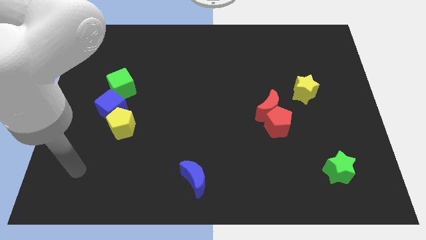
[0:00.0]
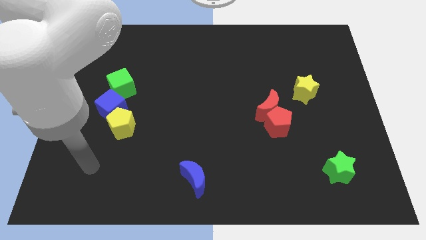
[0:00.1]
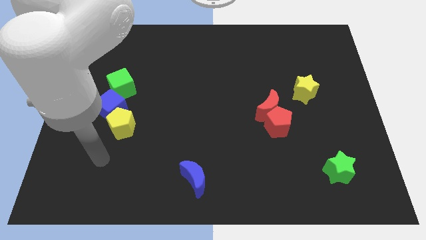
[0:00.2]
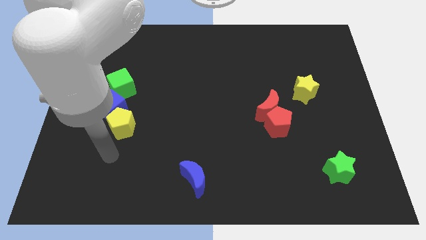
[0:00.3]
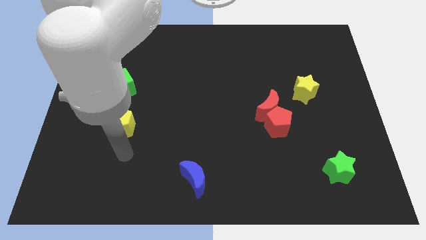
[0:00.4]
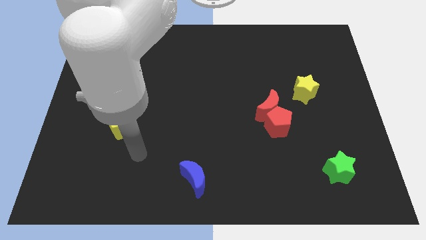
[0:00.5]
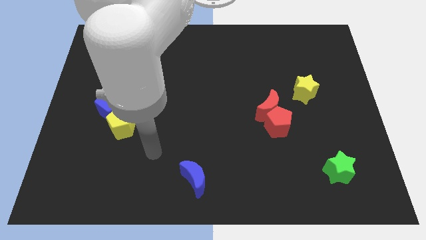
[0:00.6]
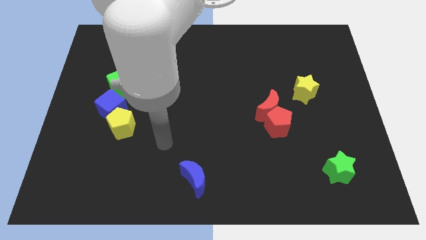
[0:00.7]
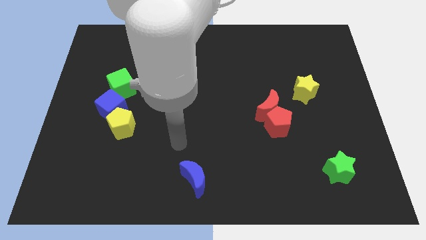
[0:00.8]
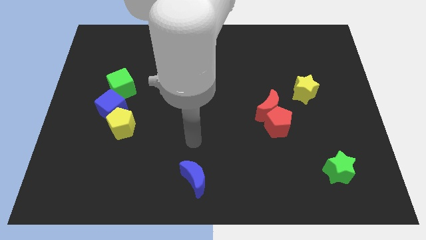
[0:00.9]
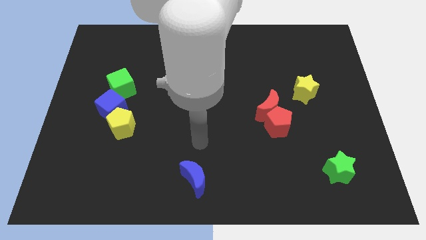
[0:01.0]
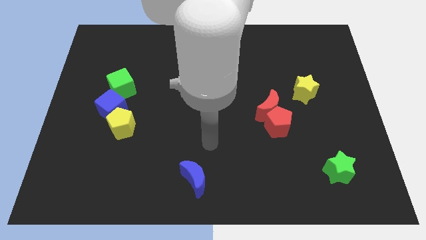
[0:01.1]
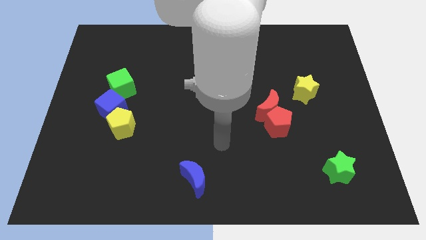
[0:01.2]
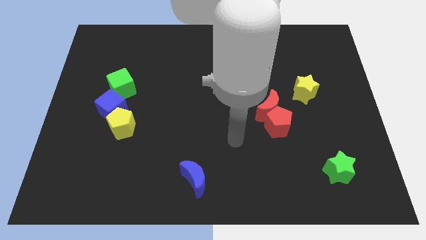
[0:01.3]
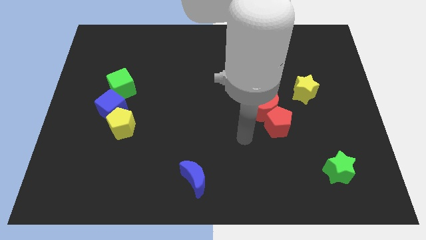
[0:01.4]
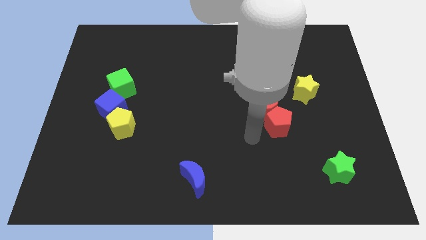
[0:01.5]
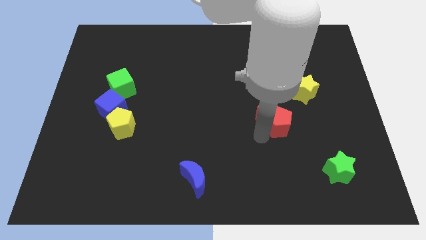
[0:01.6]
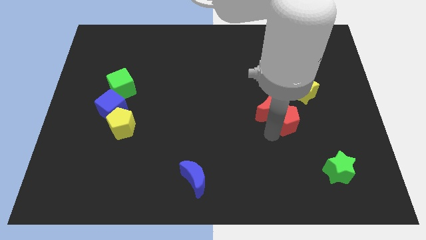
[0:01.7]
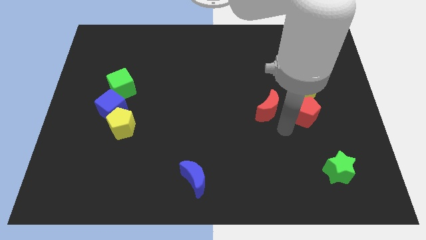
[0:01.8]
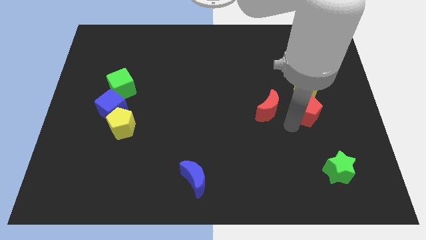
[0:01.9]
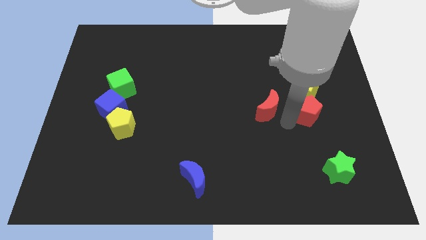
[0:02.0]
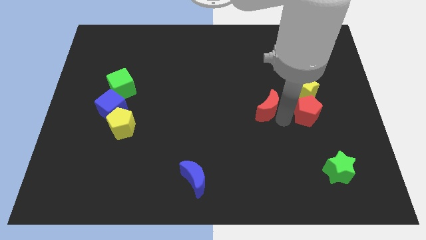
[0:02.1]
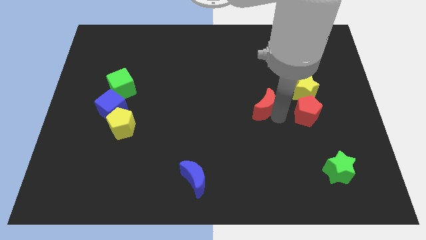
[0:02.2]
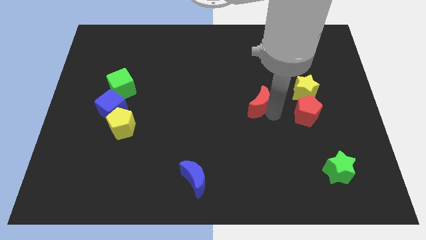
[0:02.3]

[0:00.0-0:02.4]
move the red moon away from the red pentagon

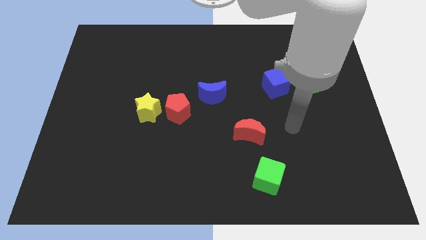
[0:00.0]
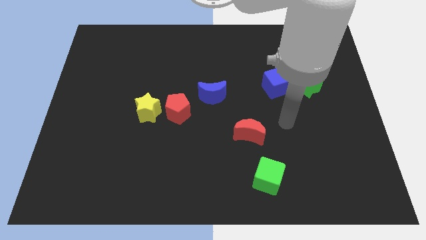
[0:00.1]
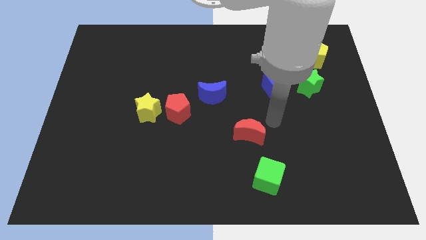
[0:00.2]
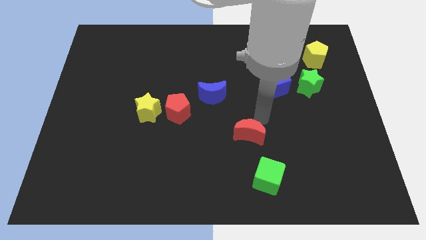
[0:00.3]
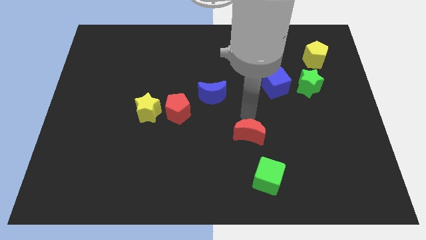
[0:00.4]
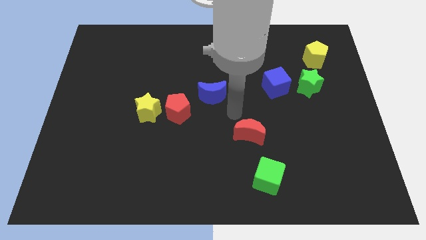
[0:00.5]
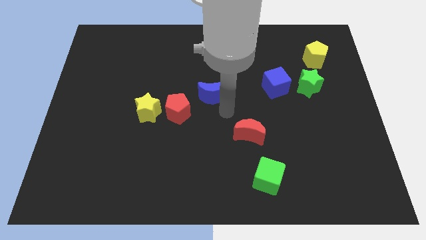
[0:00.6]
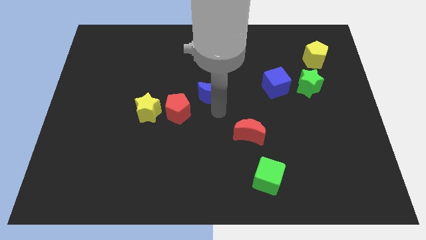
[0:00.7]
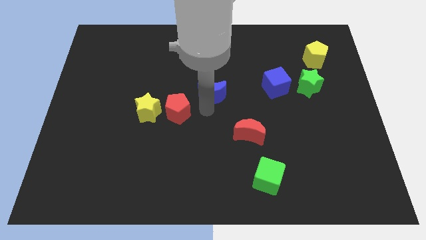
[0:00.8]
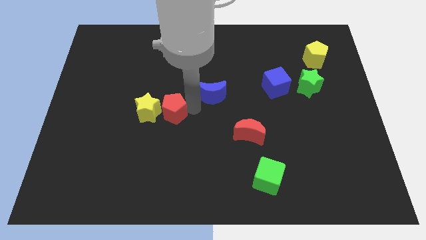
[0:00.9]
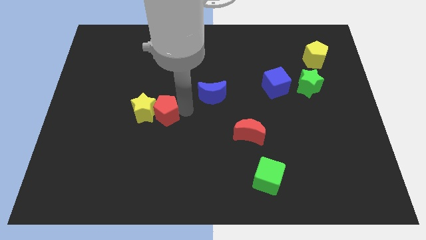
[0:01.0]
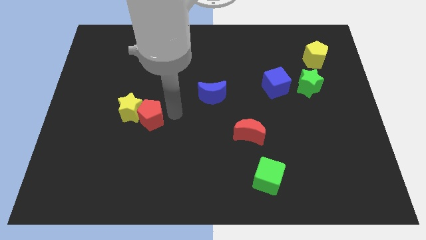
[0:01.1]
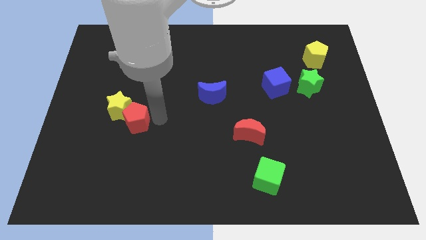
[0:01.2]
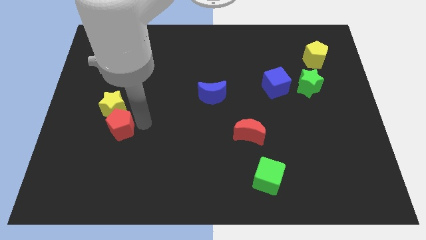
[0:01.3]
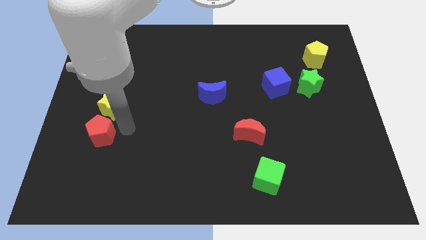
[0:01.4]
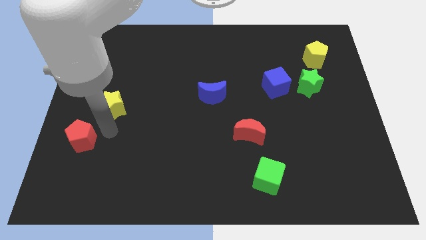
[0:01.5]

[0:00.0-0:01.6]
pull the yellow star apart from the red pentagon

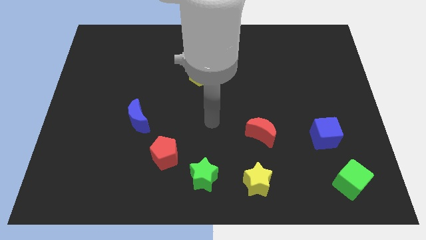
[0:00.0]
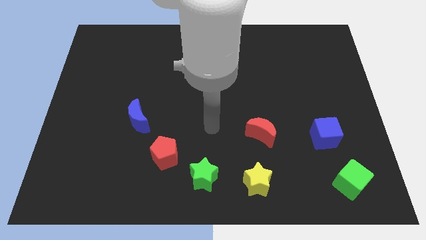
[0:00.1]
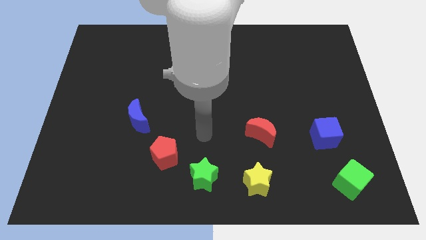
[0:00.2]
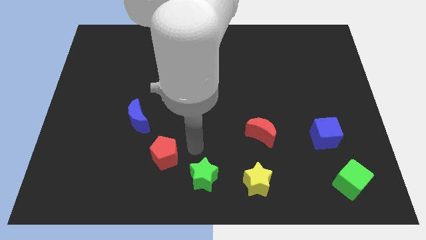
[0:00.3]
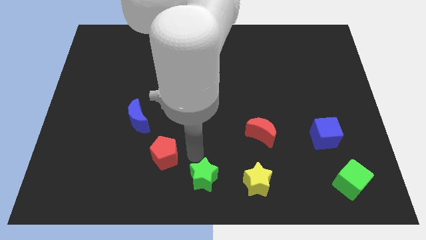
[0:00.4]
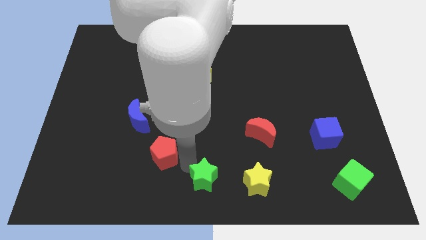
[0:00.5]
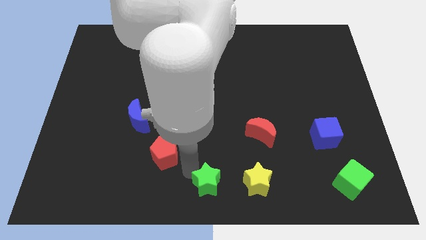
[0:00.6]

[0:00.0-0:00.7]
separate the red pentagon from the green star

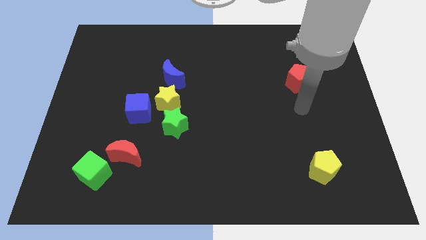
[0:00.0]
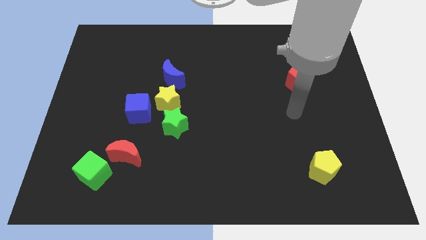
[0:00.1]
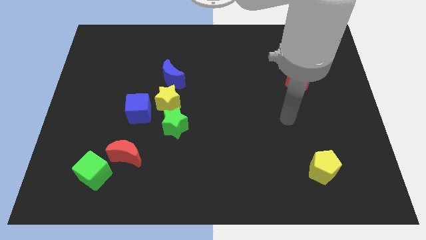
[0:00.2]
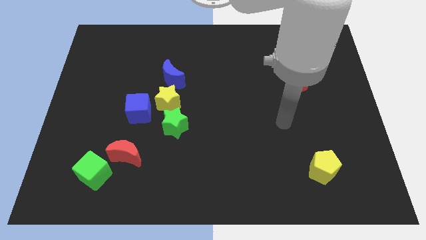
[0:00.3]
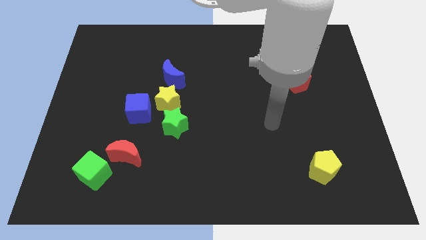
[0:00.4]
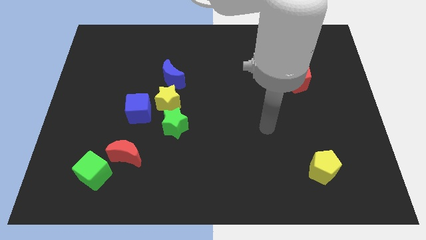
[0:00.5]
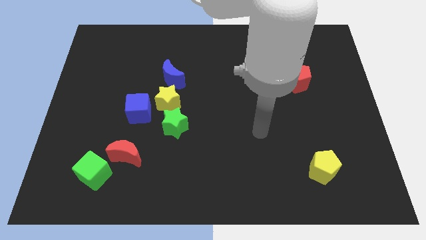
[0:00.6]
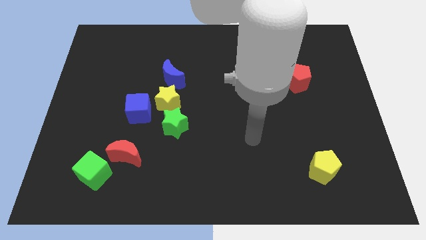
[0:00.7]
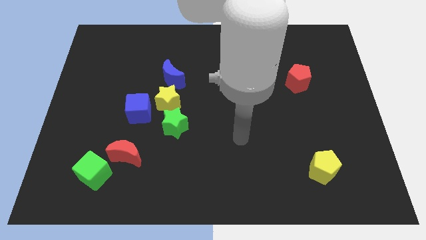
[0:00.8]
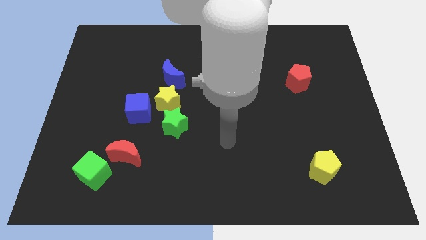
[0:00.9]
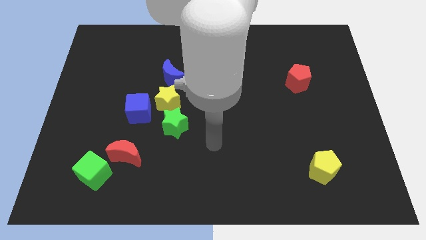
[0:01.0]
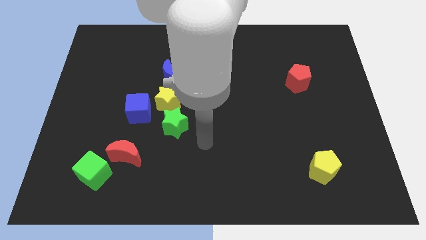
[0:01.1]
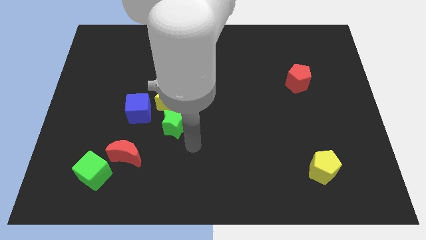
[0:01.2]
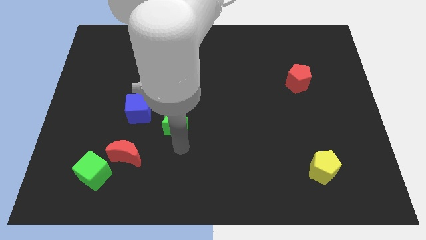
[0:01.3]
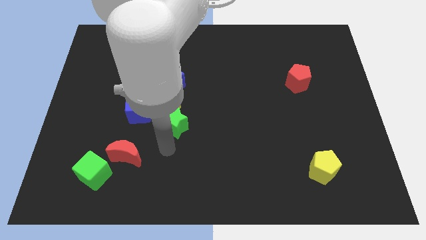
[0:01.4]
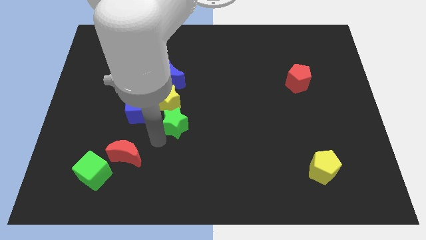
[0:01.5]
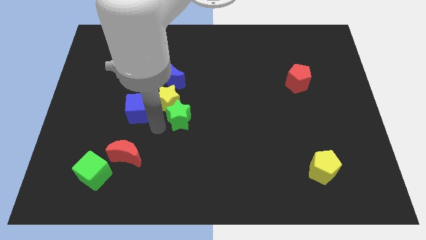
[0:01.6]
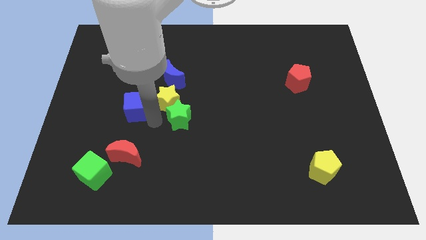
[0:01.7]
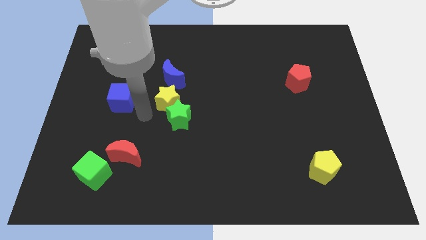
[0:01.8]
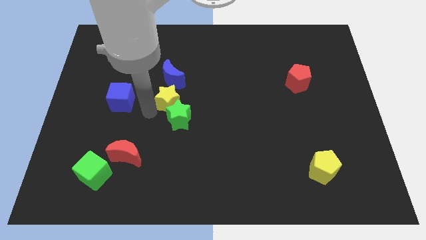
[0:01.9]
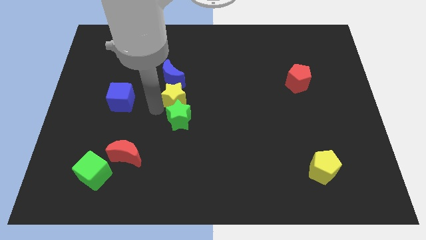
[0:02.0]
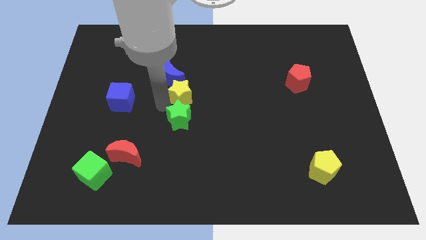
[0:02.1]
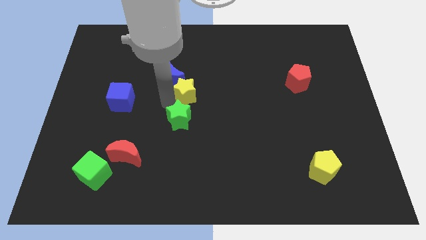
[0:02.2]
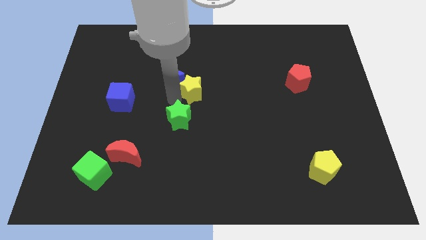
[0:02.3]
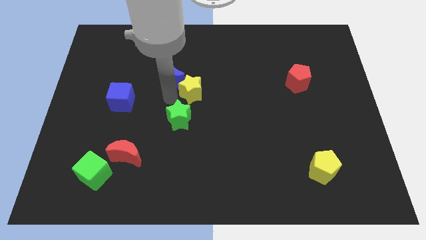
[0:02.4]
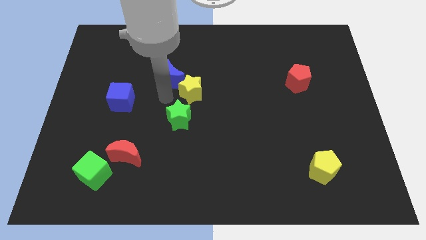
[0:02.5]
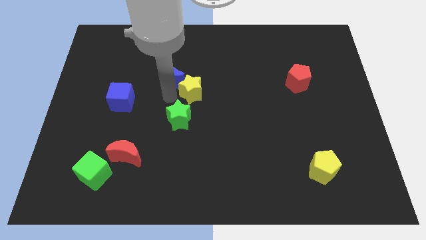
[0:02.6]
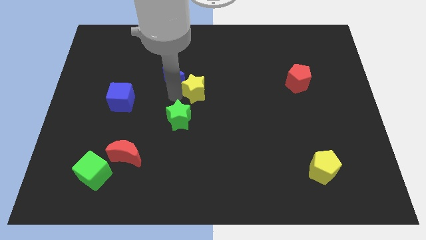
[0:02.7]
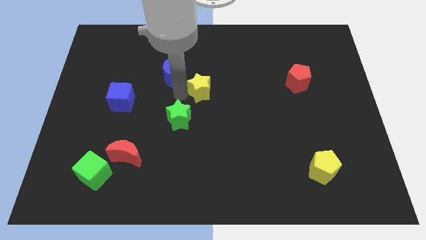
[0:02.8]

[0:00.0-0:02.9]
pull the yellow star apart from the group

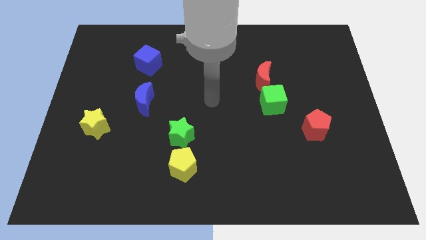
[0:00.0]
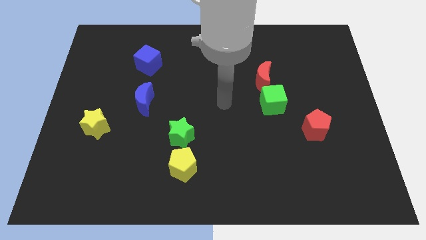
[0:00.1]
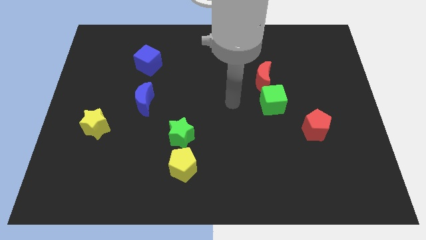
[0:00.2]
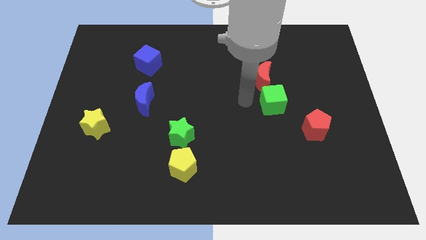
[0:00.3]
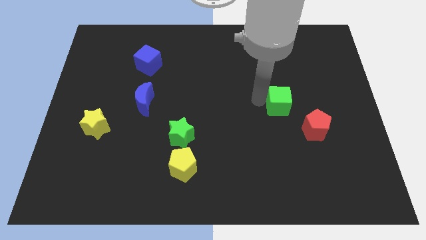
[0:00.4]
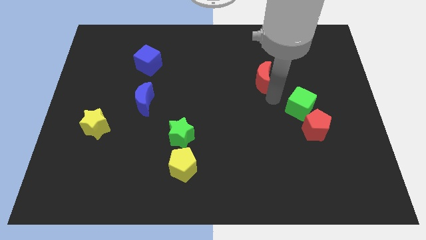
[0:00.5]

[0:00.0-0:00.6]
pull the red moon apart from the green cube

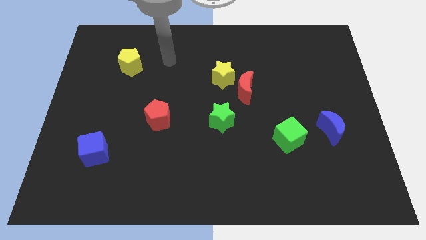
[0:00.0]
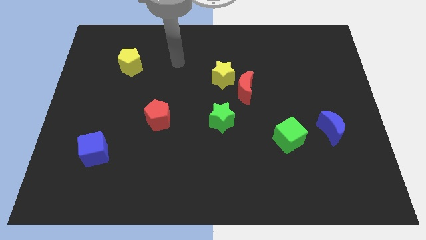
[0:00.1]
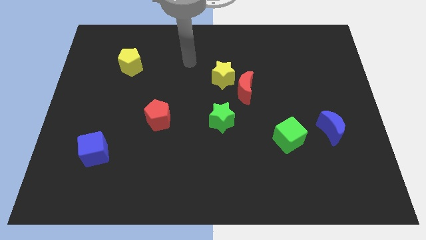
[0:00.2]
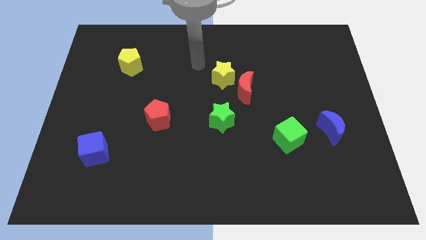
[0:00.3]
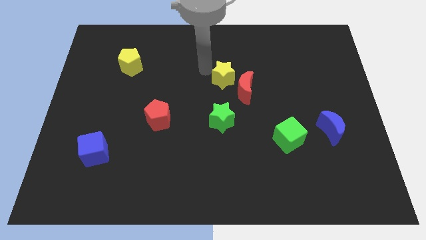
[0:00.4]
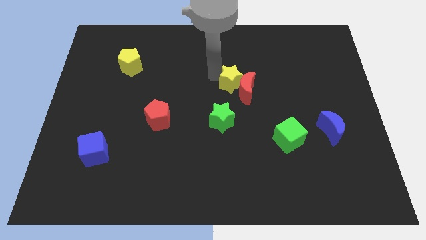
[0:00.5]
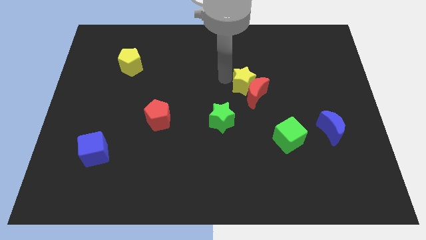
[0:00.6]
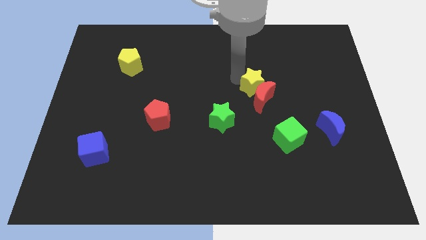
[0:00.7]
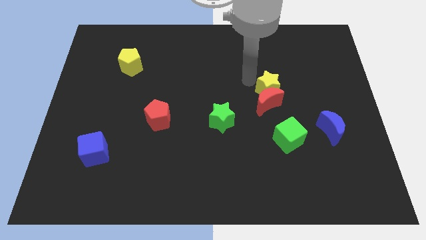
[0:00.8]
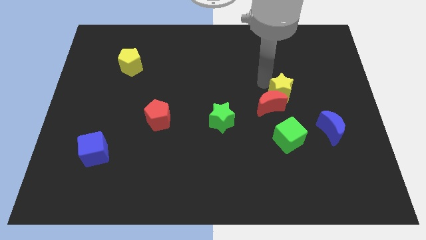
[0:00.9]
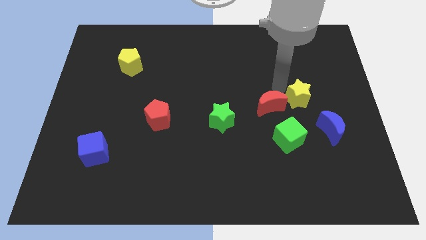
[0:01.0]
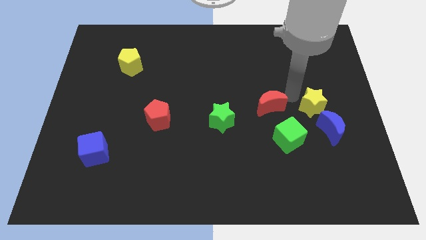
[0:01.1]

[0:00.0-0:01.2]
separate the red moon from the yellow star
